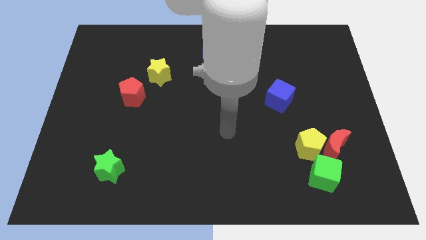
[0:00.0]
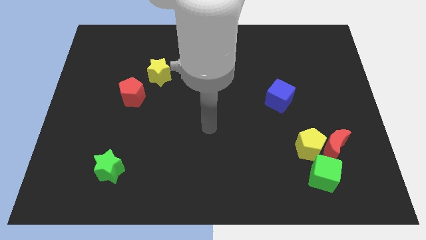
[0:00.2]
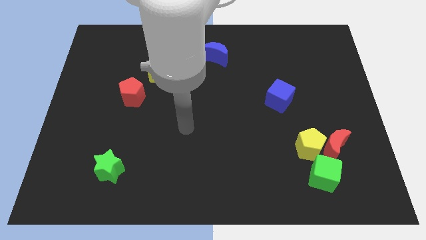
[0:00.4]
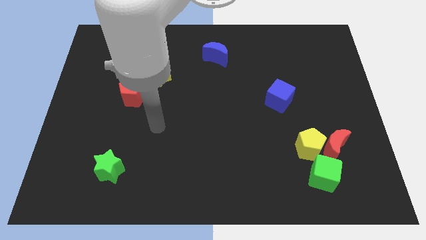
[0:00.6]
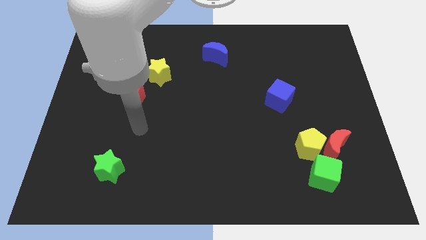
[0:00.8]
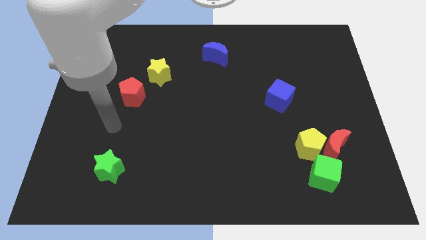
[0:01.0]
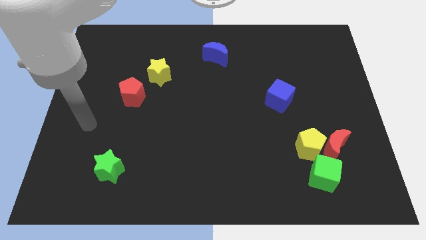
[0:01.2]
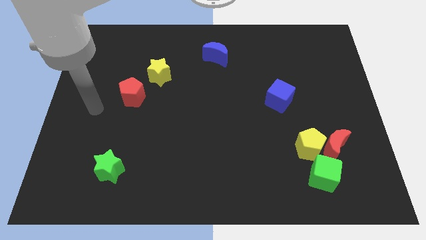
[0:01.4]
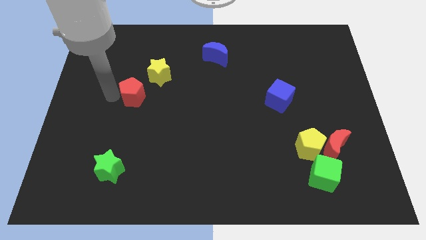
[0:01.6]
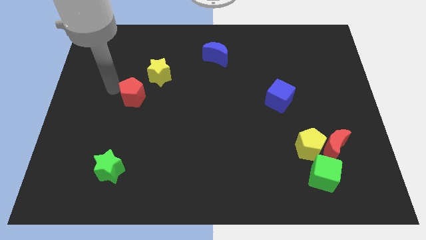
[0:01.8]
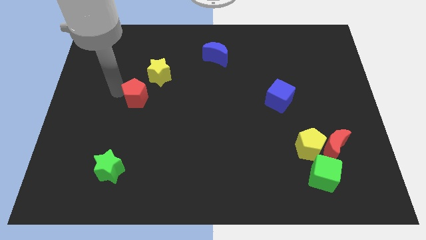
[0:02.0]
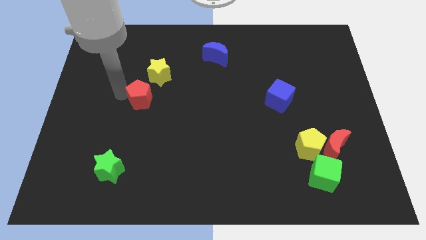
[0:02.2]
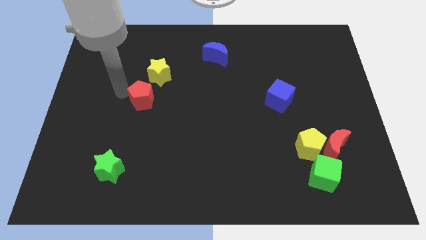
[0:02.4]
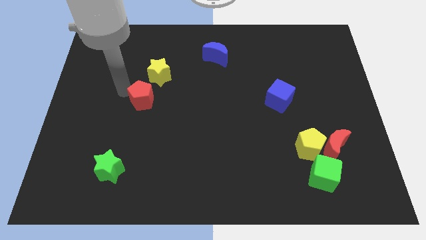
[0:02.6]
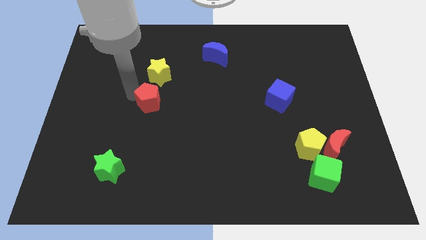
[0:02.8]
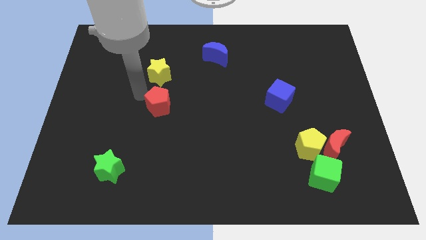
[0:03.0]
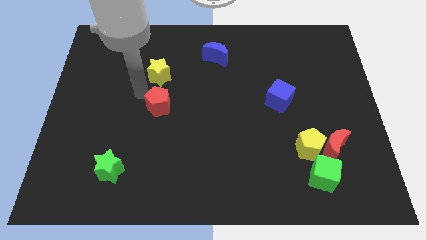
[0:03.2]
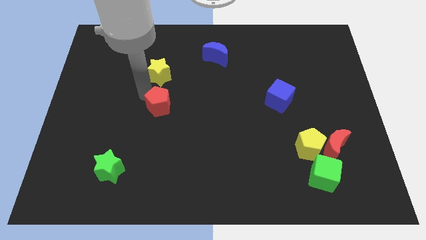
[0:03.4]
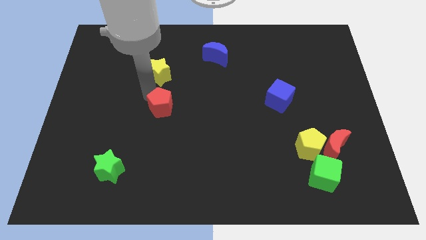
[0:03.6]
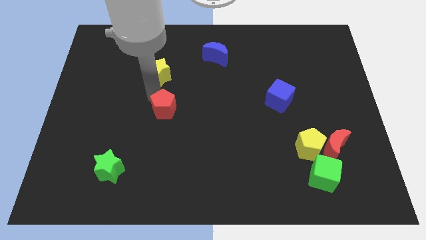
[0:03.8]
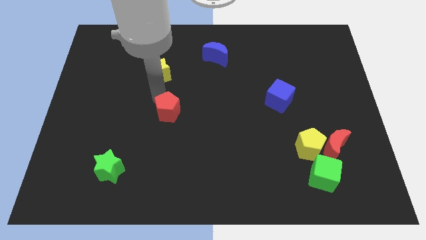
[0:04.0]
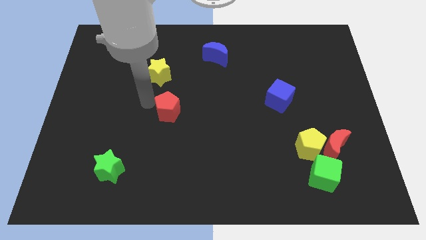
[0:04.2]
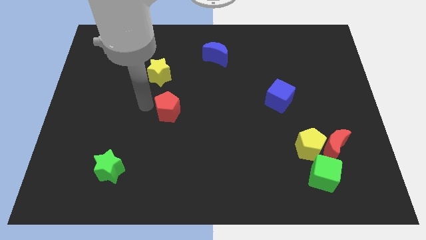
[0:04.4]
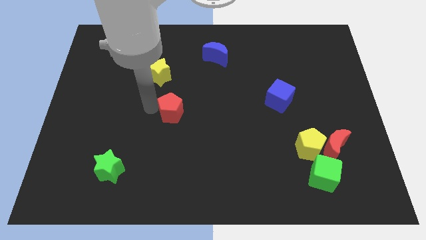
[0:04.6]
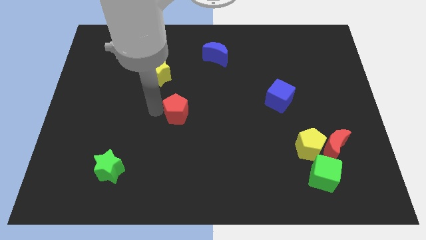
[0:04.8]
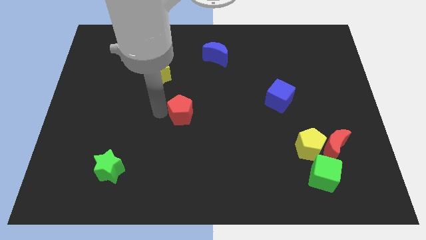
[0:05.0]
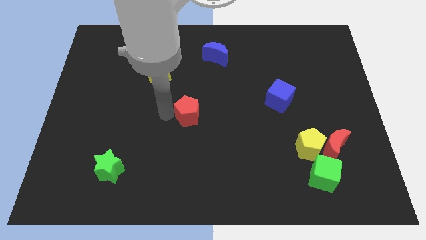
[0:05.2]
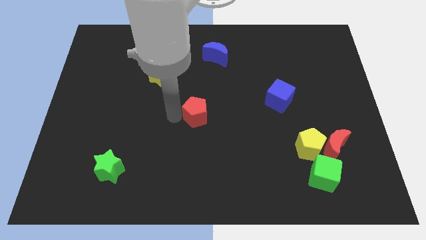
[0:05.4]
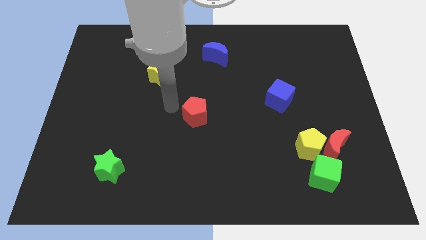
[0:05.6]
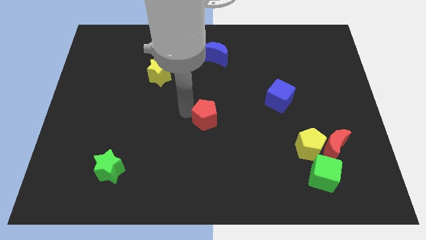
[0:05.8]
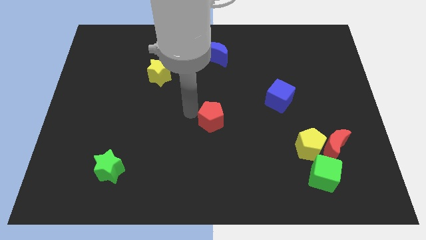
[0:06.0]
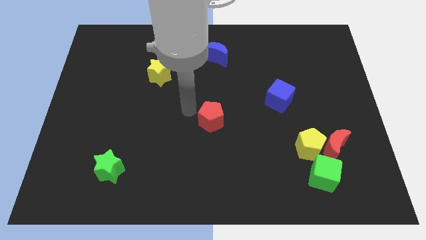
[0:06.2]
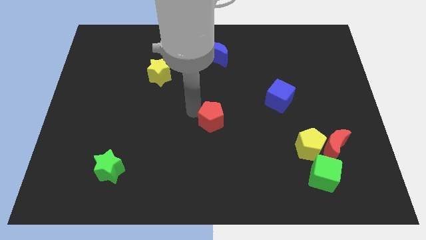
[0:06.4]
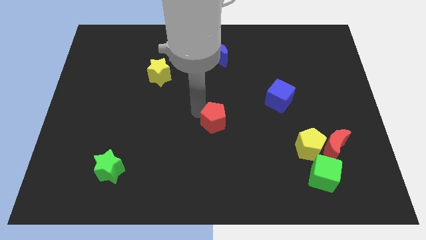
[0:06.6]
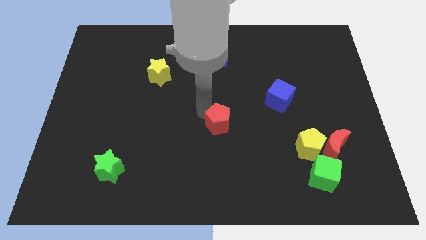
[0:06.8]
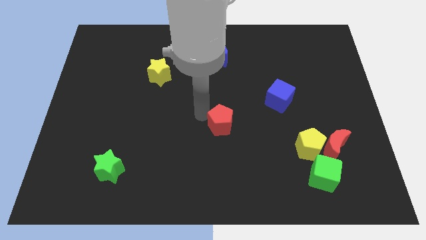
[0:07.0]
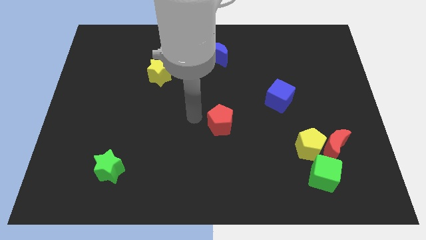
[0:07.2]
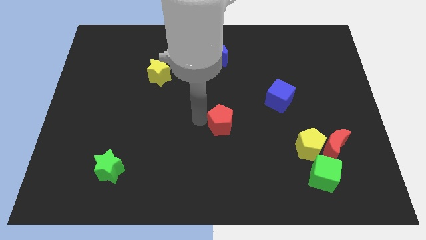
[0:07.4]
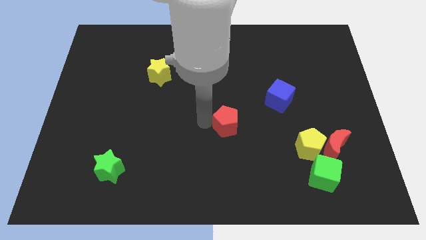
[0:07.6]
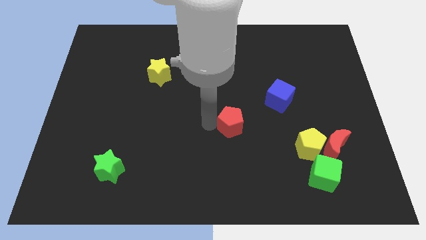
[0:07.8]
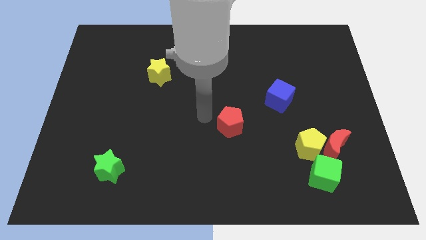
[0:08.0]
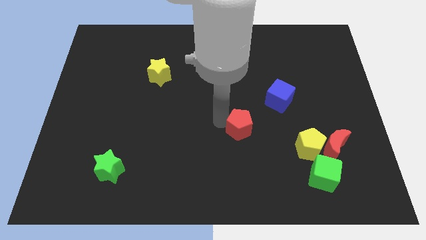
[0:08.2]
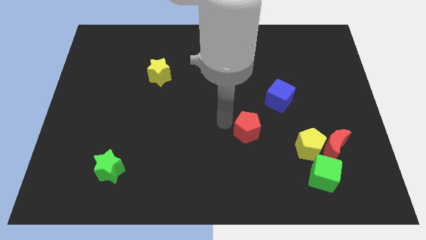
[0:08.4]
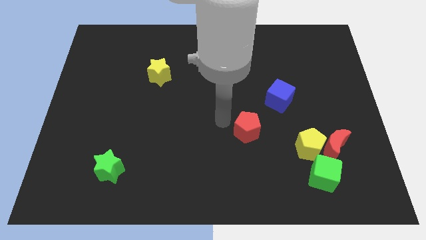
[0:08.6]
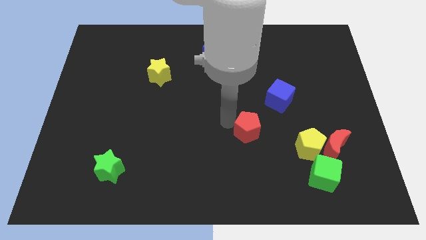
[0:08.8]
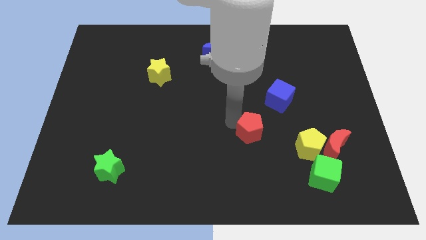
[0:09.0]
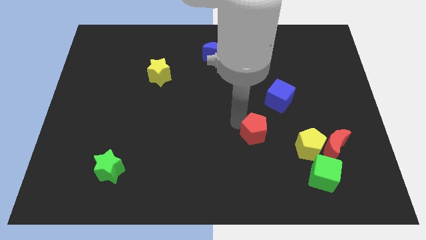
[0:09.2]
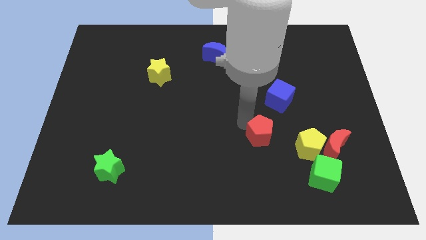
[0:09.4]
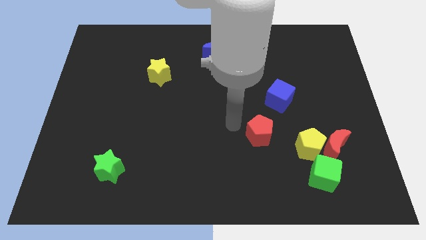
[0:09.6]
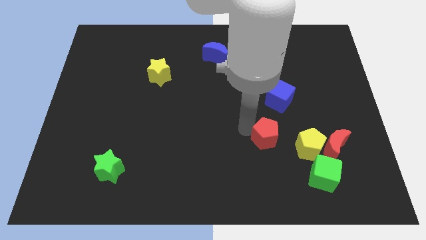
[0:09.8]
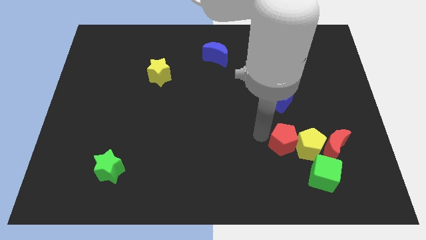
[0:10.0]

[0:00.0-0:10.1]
push the red pentagon towards the yellow pentagon

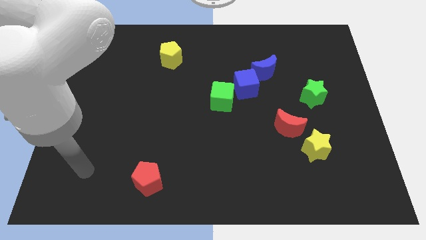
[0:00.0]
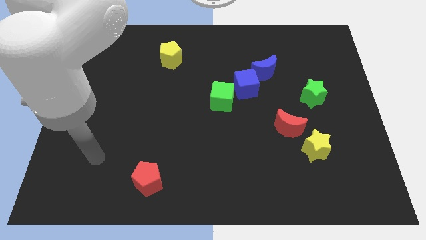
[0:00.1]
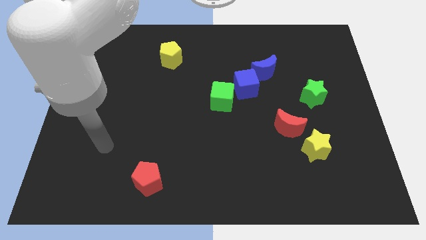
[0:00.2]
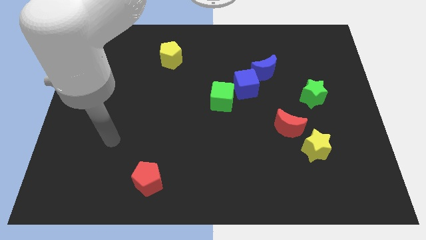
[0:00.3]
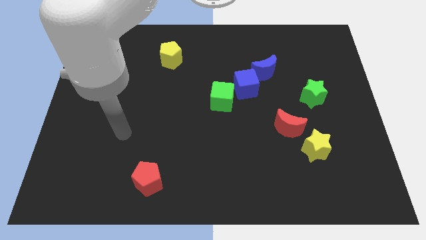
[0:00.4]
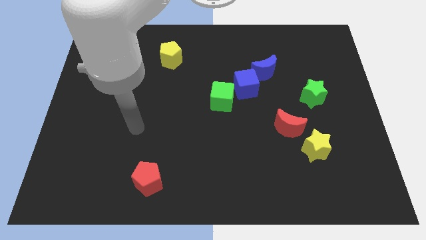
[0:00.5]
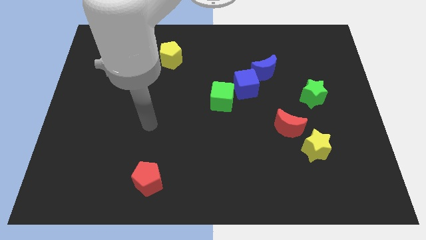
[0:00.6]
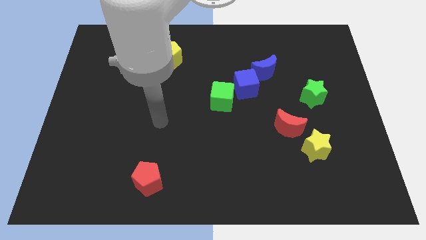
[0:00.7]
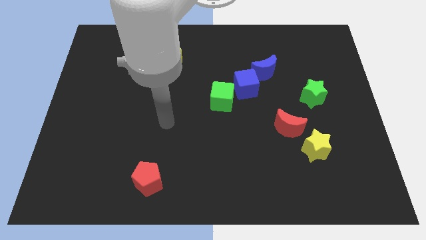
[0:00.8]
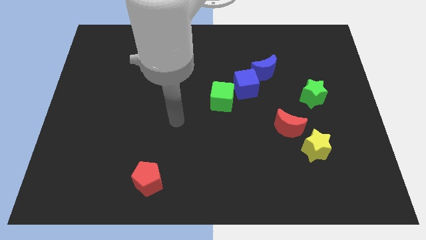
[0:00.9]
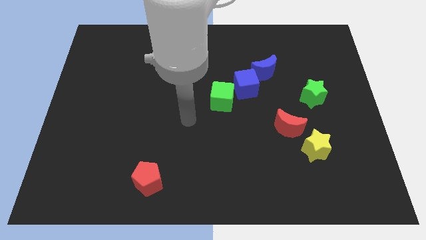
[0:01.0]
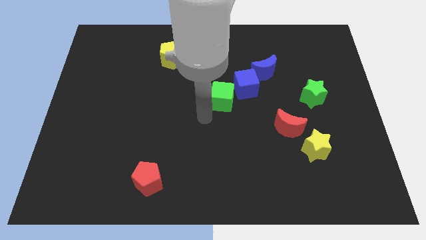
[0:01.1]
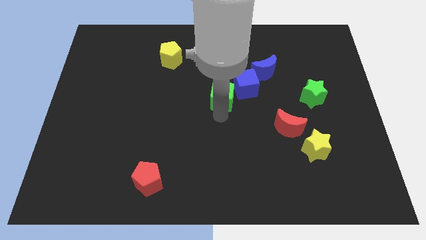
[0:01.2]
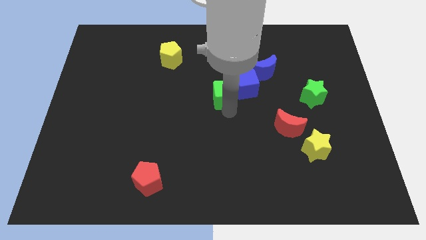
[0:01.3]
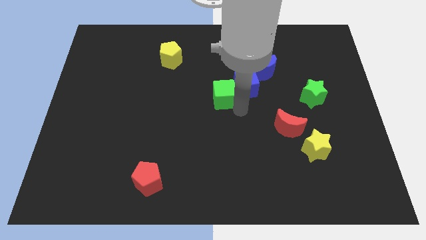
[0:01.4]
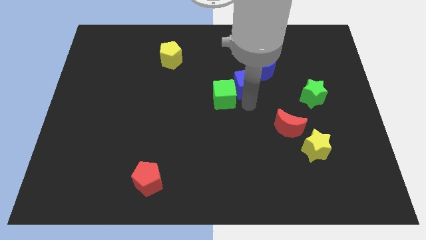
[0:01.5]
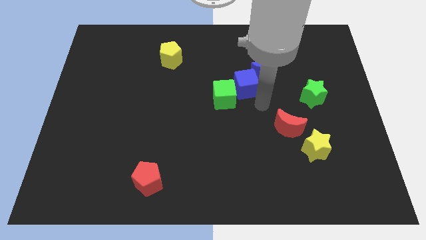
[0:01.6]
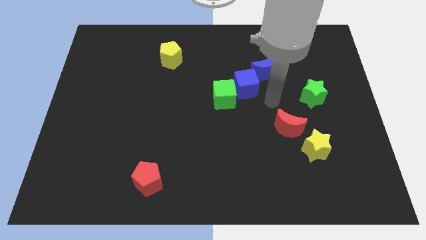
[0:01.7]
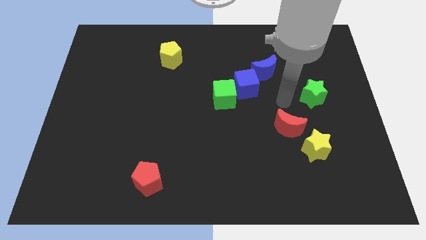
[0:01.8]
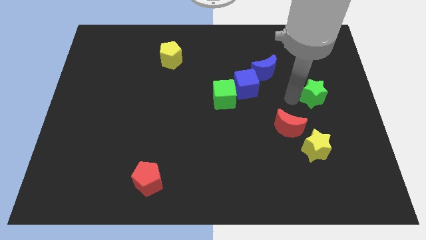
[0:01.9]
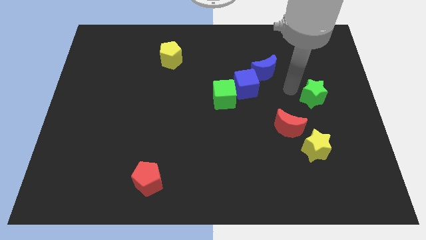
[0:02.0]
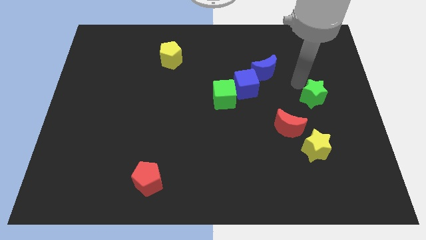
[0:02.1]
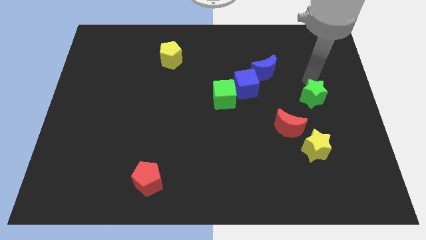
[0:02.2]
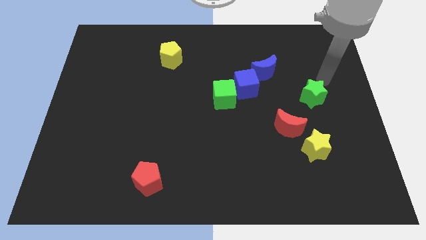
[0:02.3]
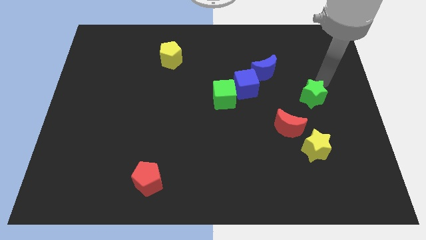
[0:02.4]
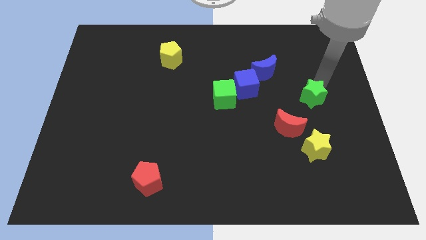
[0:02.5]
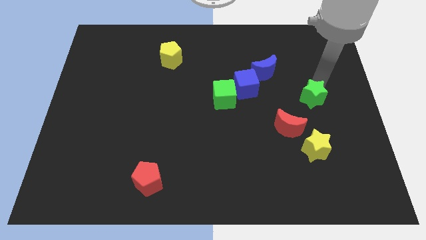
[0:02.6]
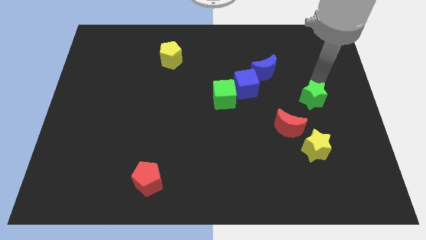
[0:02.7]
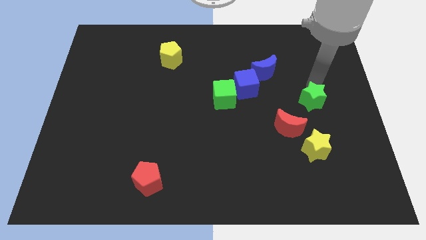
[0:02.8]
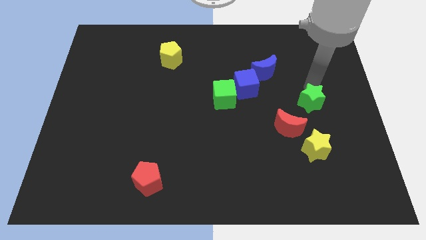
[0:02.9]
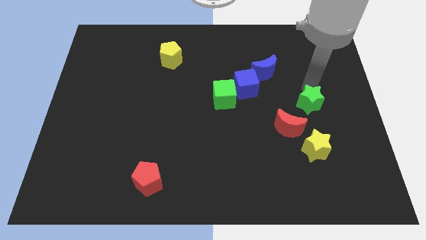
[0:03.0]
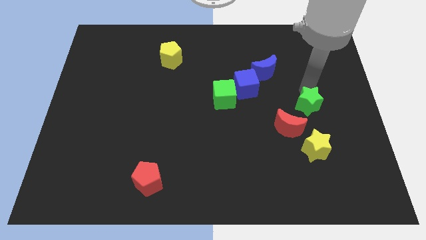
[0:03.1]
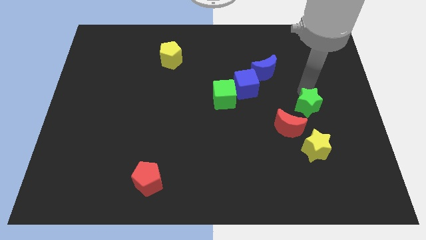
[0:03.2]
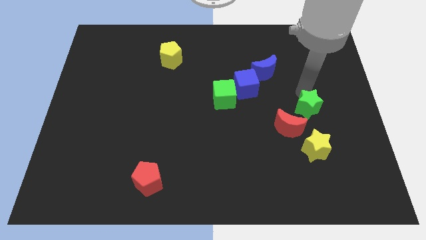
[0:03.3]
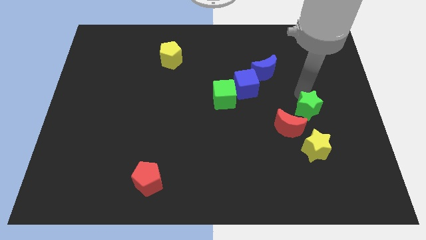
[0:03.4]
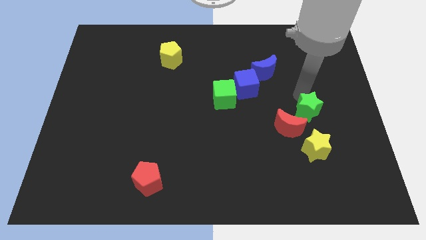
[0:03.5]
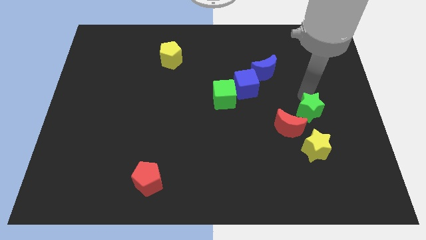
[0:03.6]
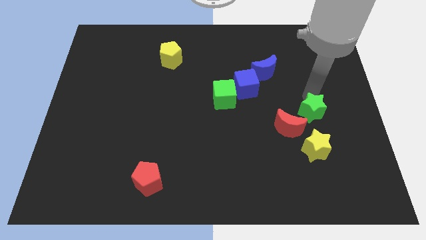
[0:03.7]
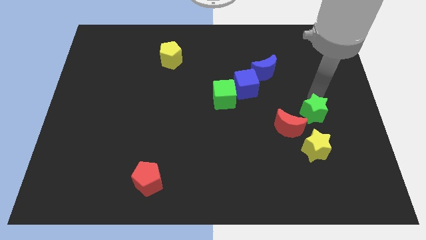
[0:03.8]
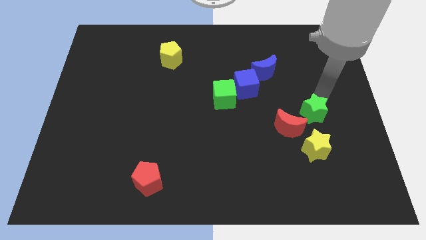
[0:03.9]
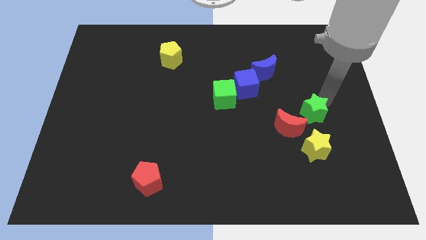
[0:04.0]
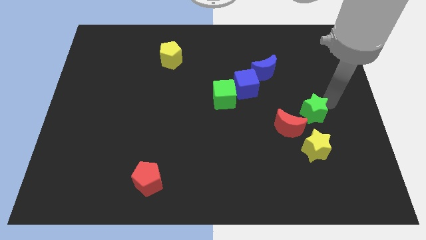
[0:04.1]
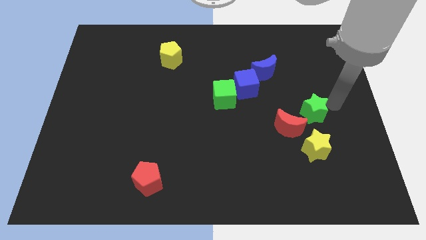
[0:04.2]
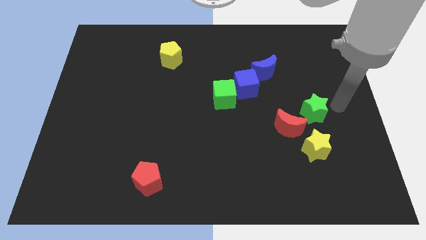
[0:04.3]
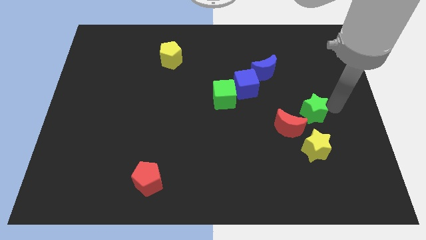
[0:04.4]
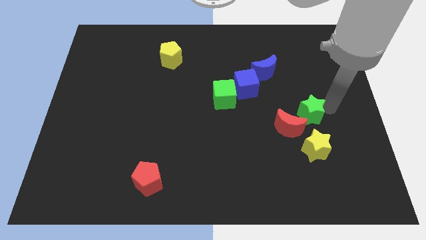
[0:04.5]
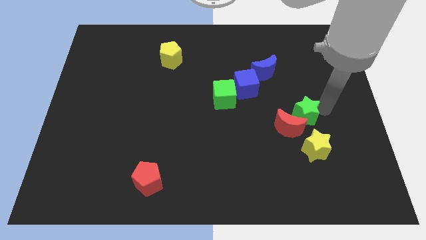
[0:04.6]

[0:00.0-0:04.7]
slide the green star next to the red moon
